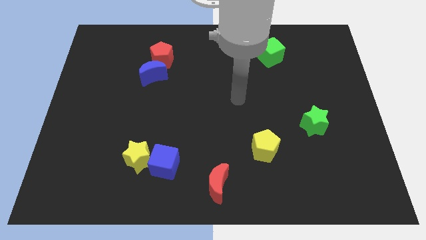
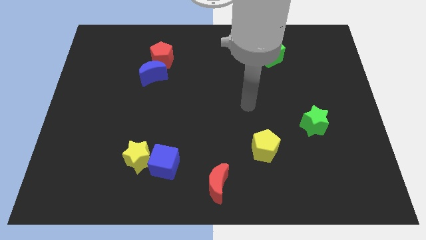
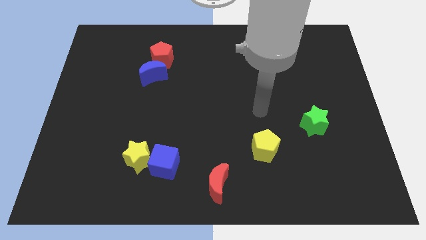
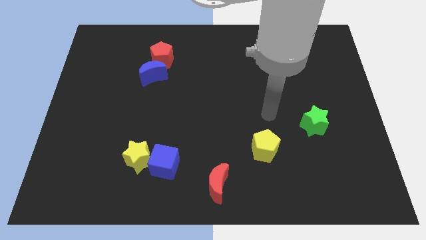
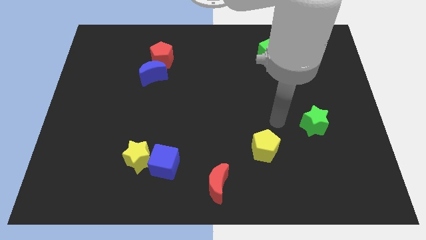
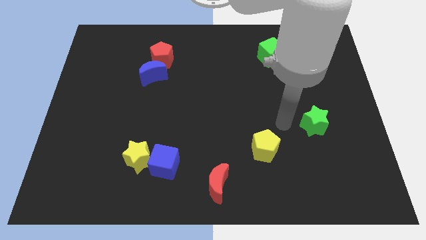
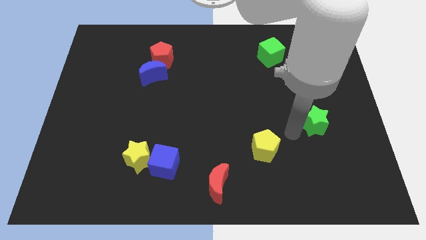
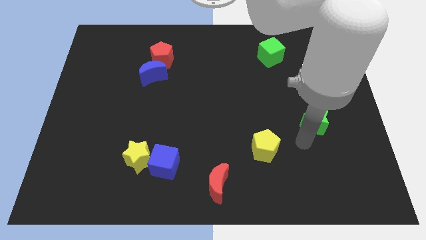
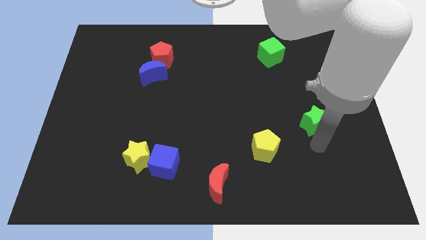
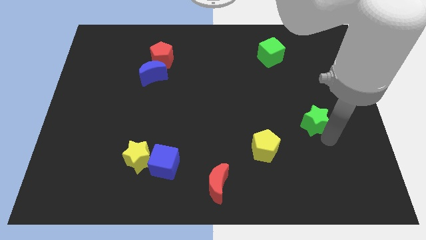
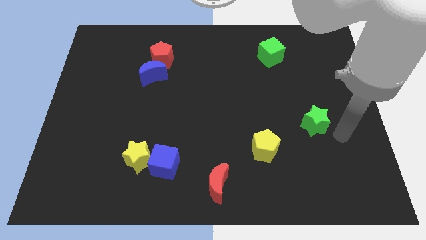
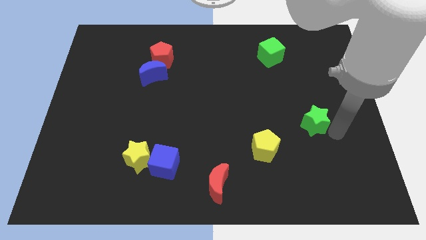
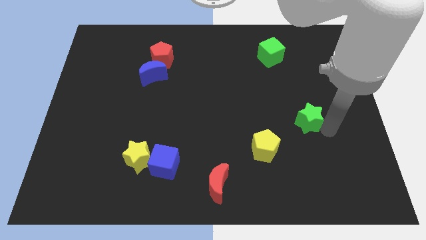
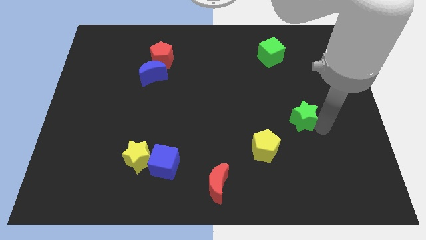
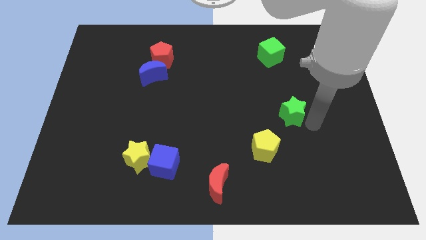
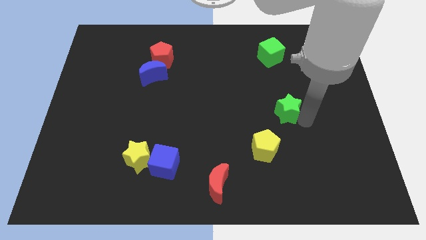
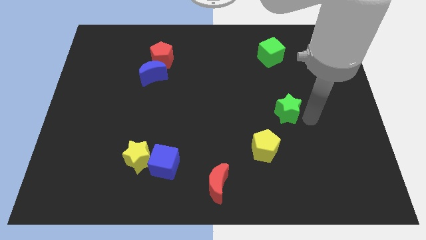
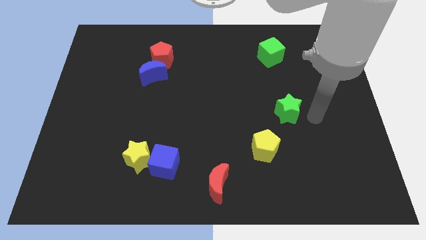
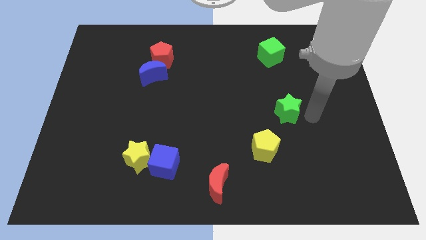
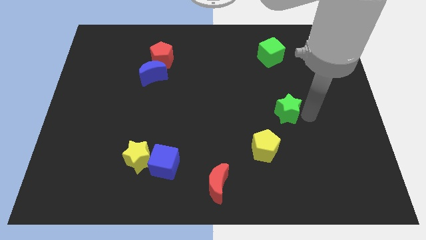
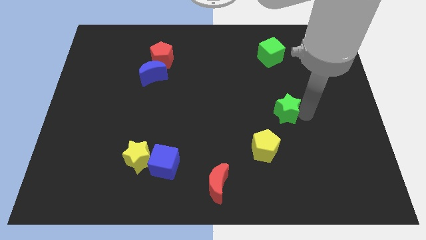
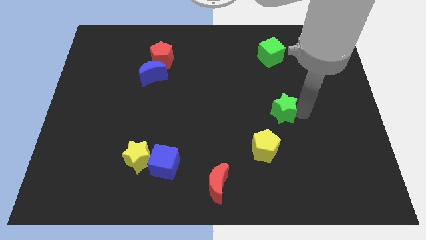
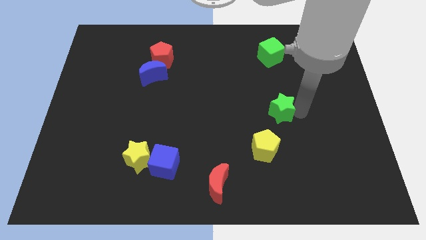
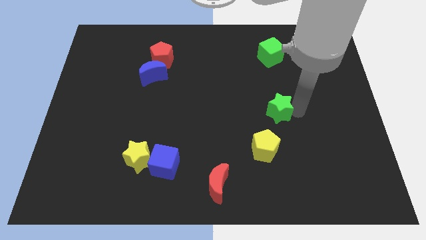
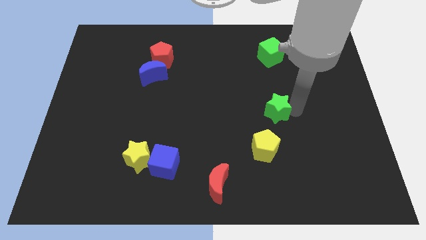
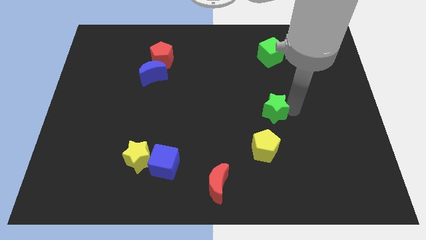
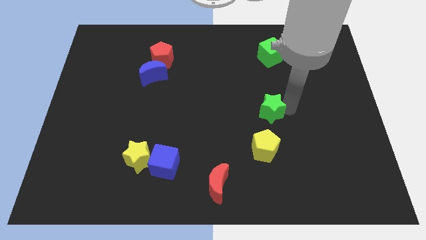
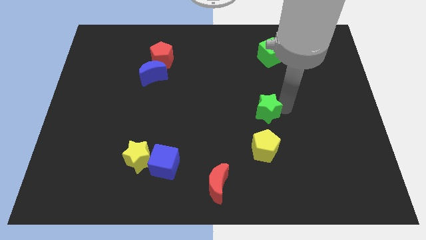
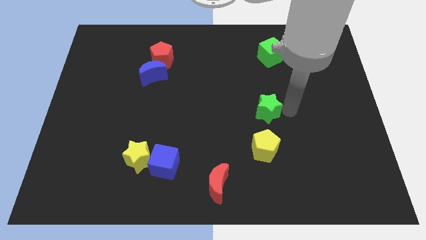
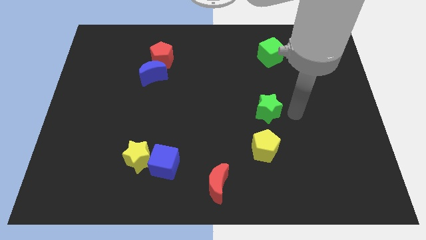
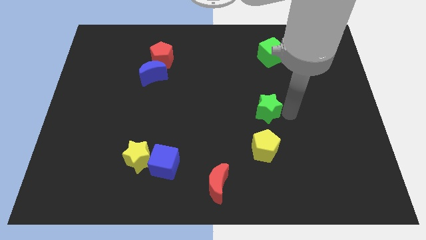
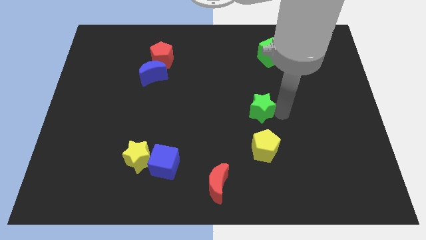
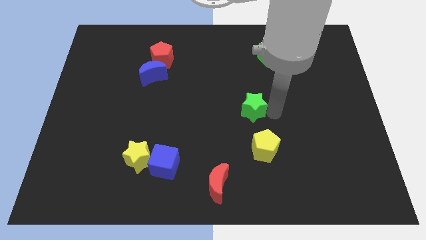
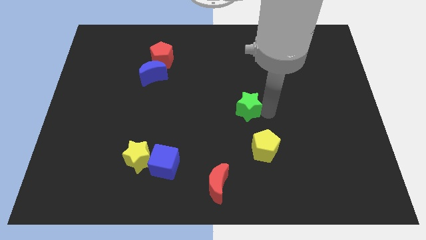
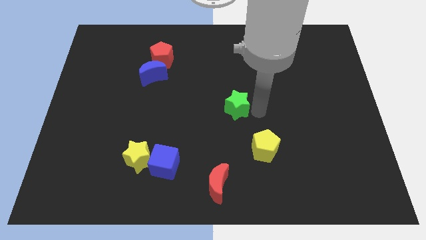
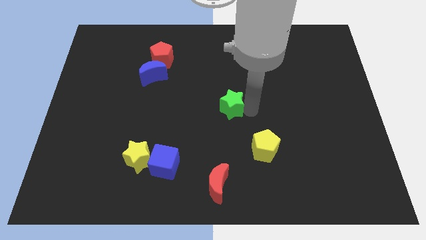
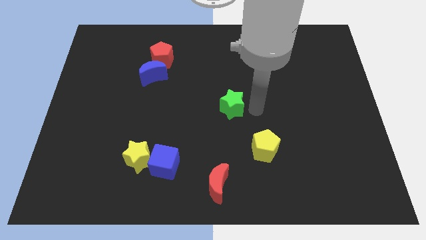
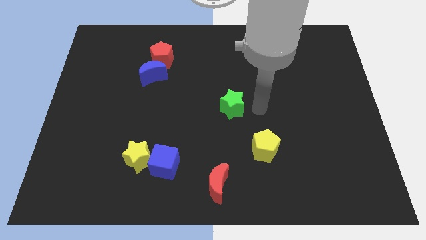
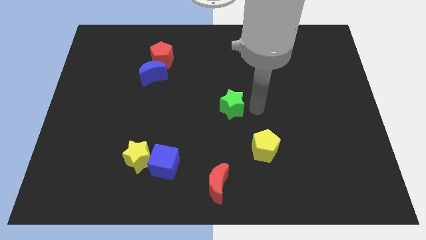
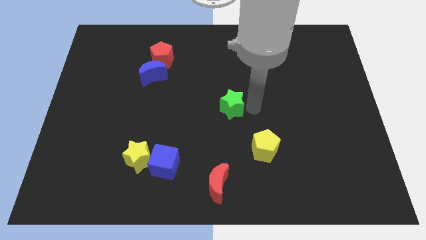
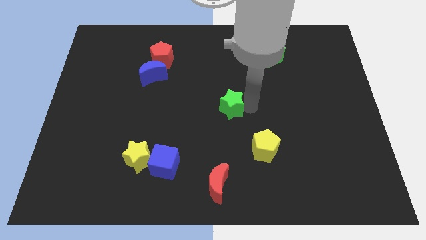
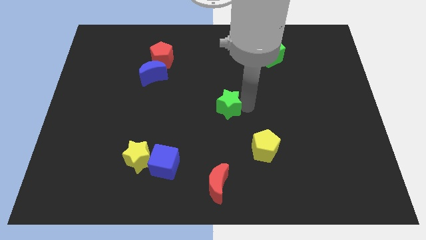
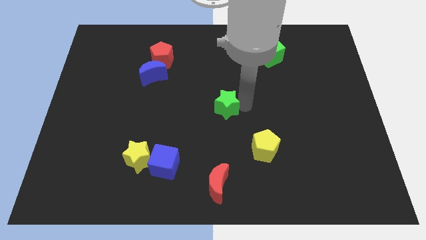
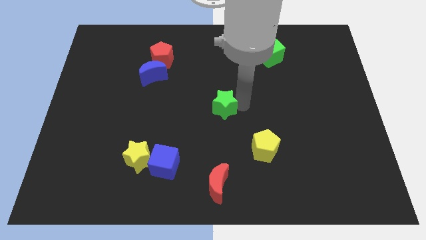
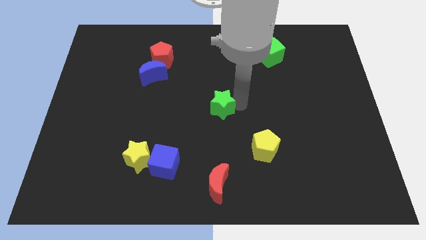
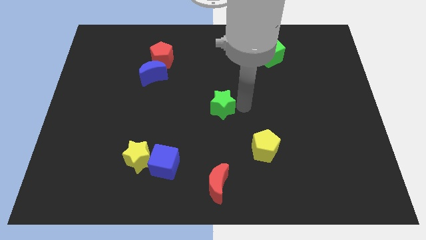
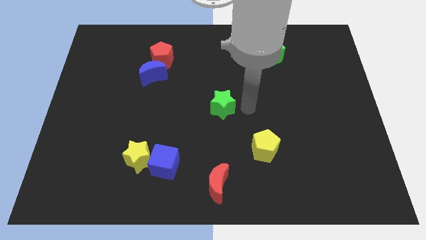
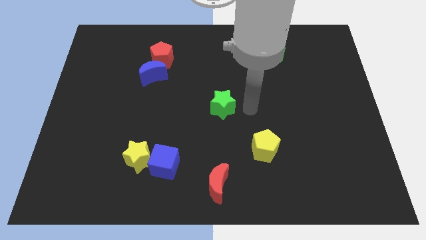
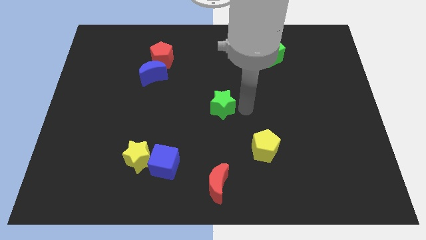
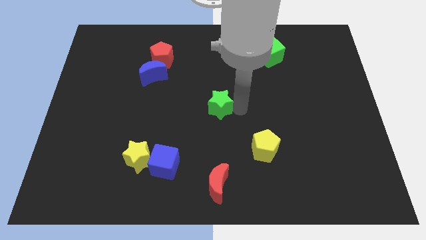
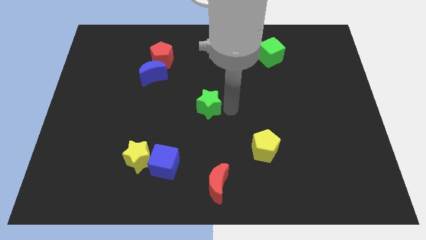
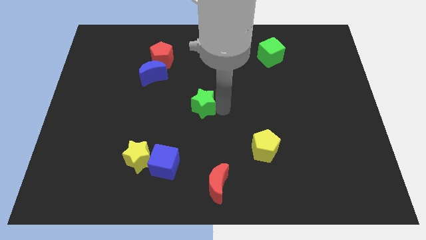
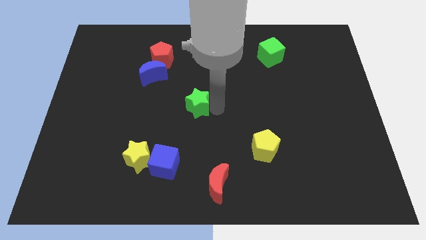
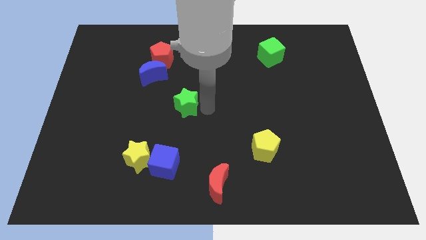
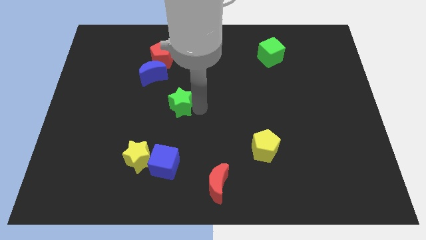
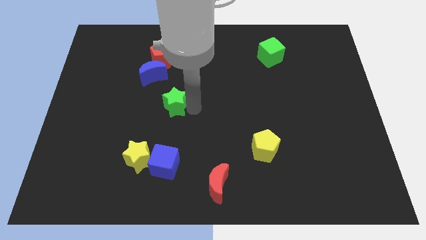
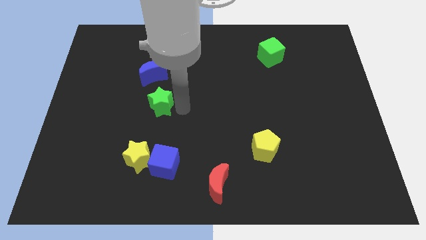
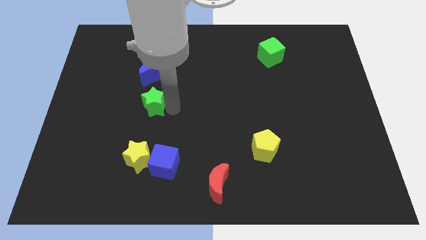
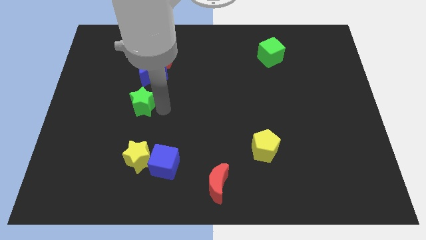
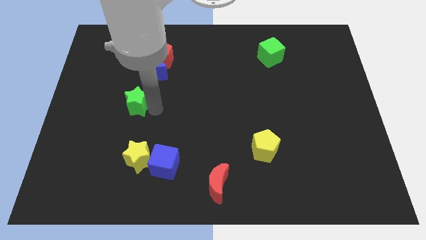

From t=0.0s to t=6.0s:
move the green star to the bottom left side of the blue moon

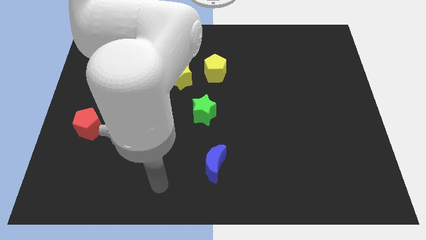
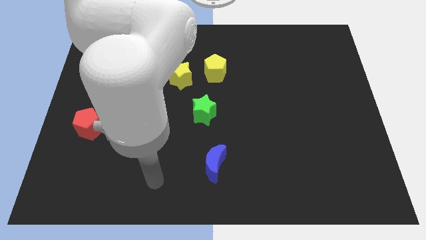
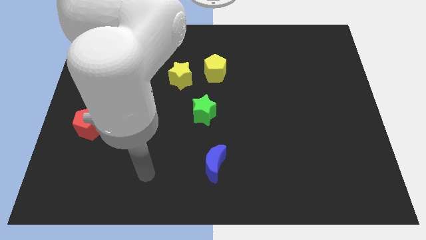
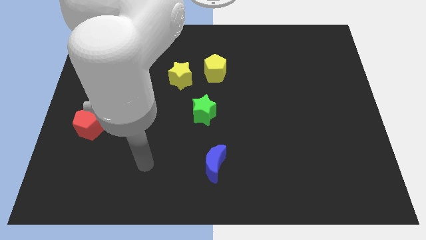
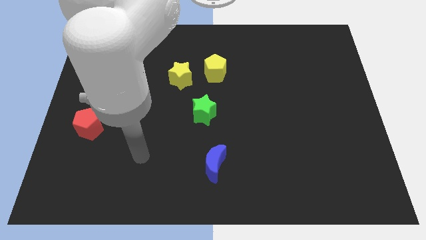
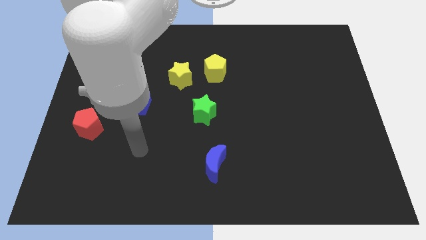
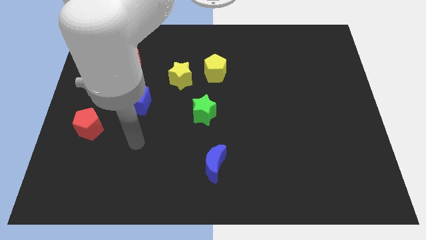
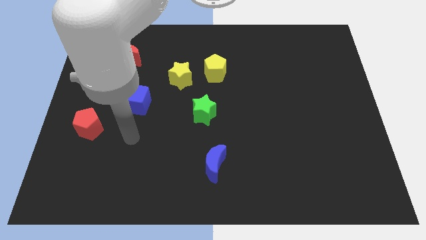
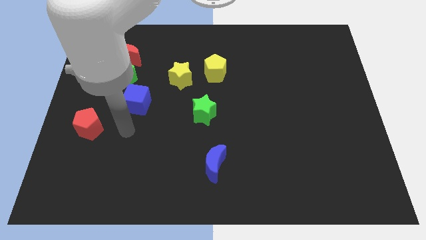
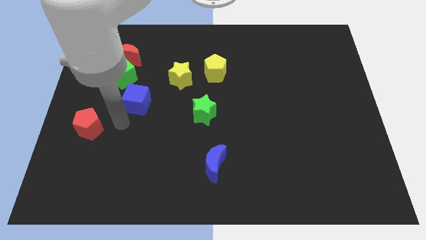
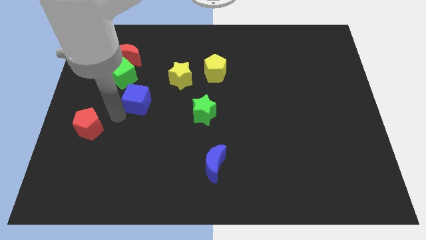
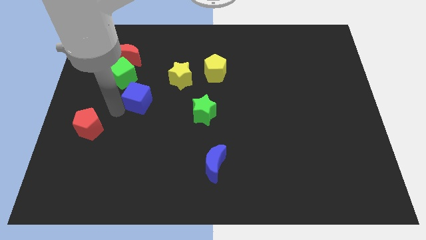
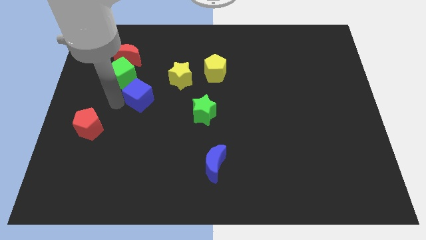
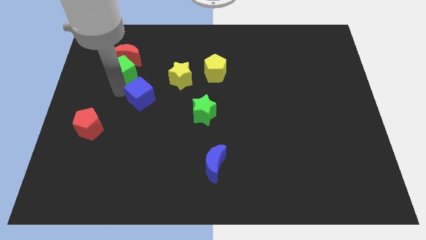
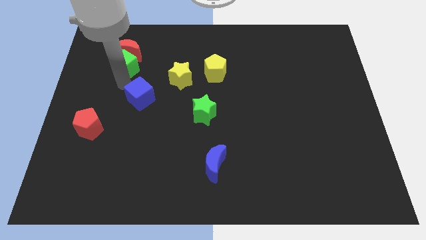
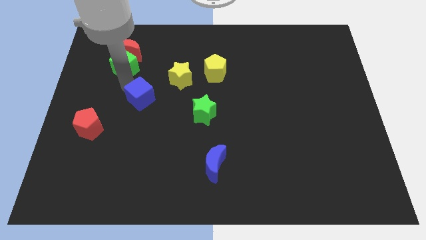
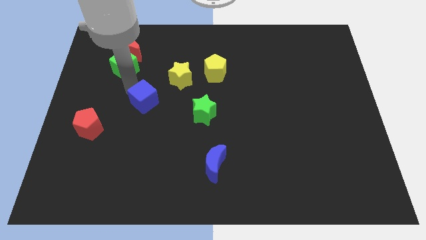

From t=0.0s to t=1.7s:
move the blue cube just left of the green star
